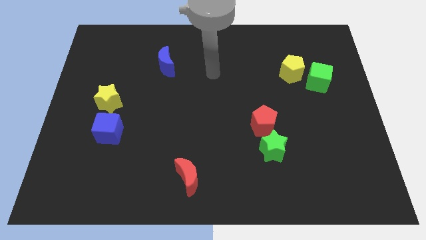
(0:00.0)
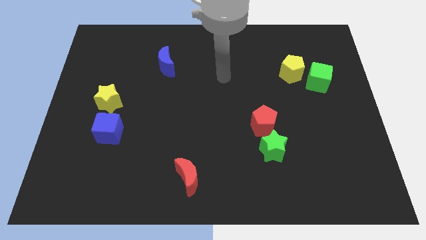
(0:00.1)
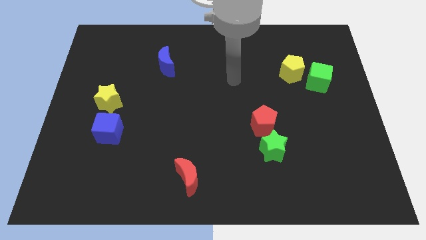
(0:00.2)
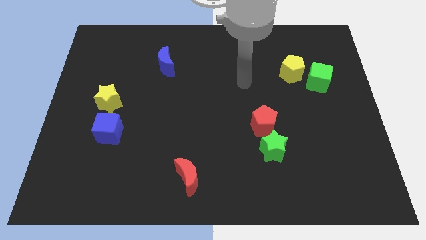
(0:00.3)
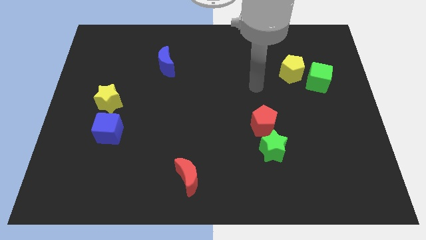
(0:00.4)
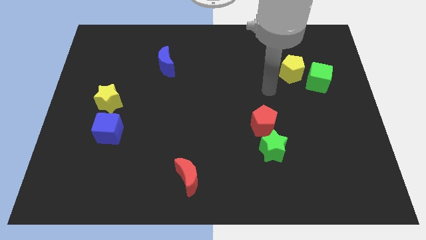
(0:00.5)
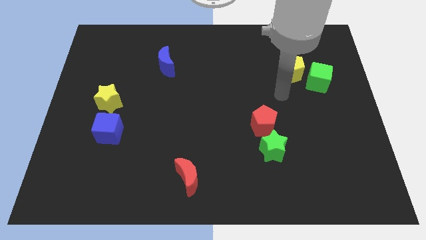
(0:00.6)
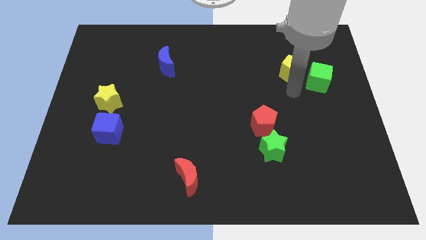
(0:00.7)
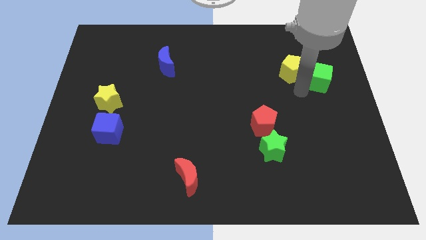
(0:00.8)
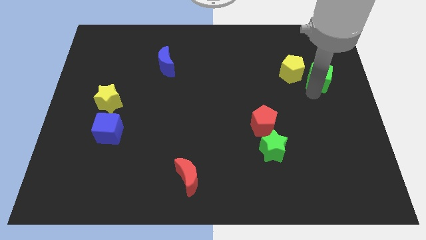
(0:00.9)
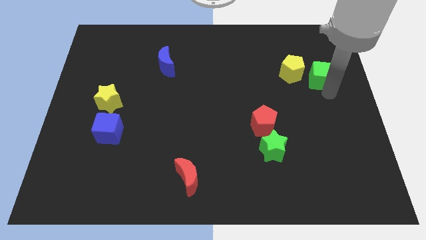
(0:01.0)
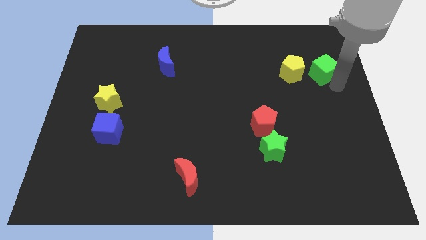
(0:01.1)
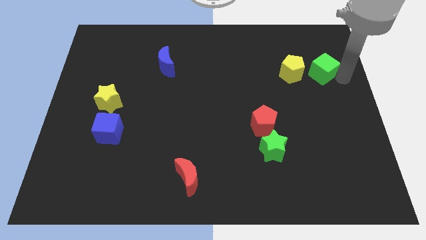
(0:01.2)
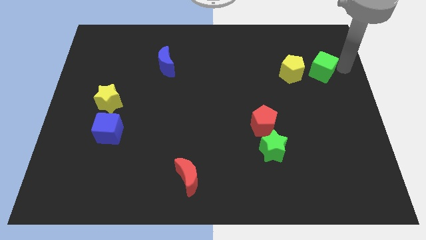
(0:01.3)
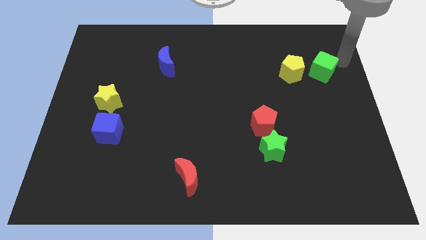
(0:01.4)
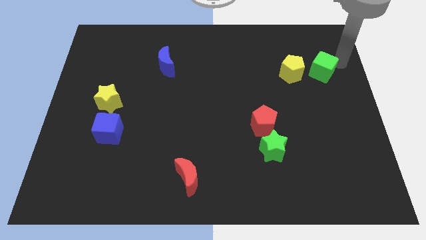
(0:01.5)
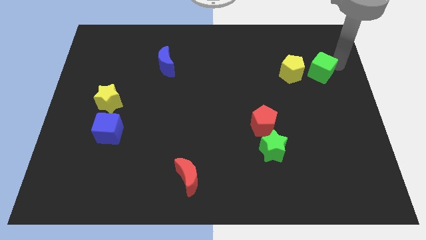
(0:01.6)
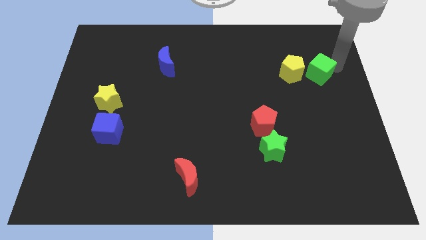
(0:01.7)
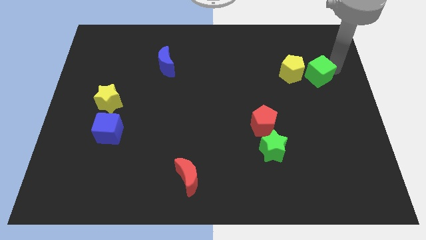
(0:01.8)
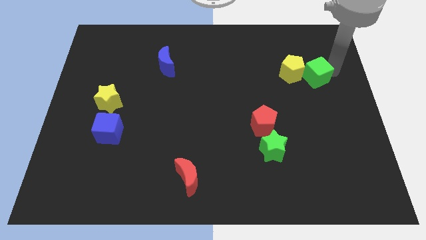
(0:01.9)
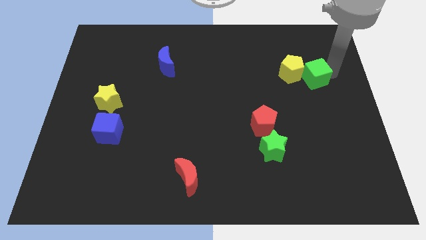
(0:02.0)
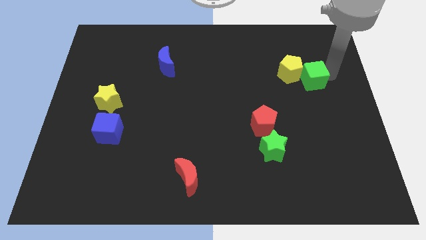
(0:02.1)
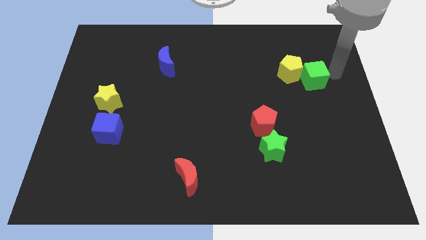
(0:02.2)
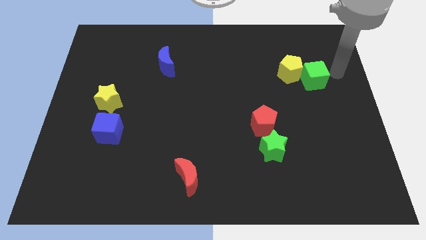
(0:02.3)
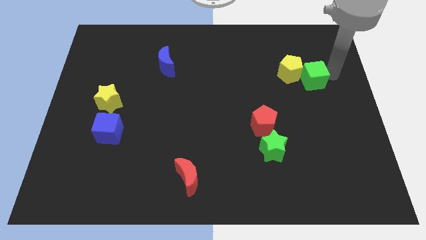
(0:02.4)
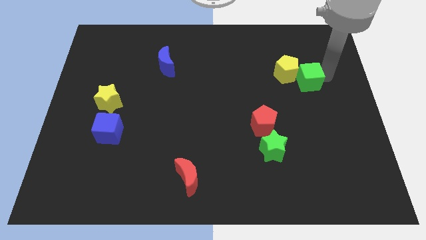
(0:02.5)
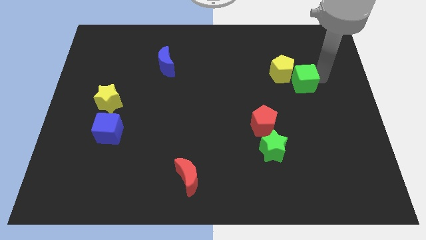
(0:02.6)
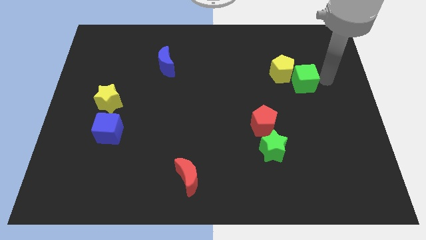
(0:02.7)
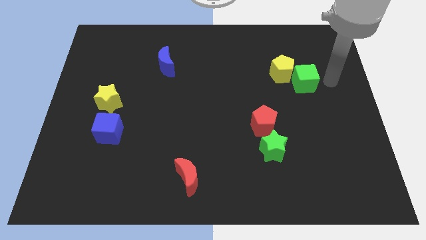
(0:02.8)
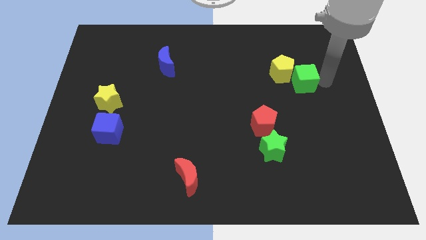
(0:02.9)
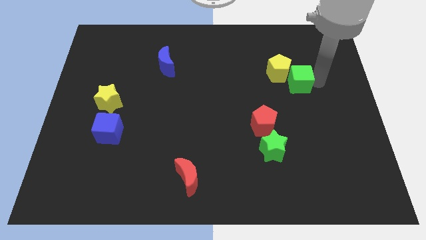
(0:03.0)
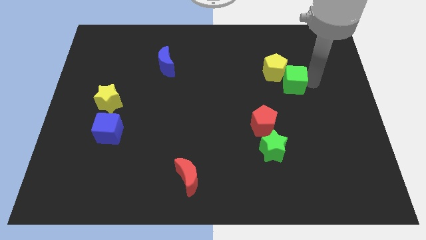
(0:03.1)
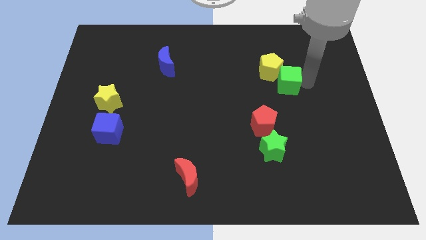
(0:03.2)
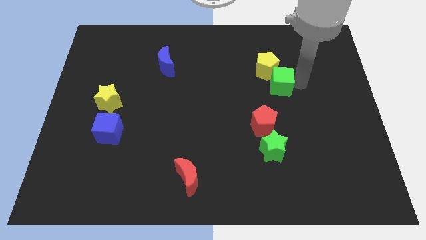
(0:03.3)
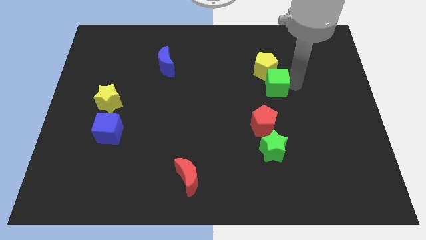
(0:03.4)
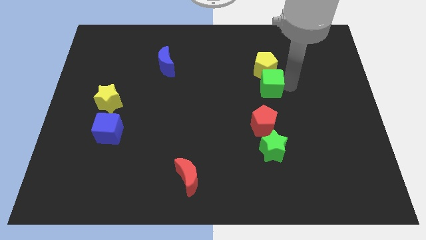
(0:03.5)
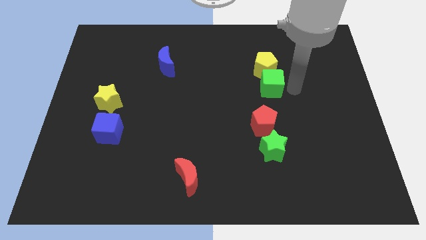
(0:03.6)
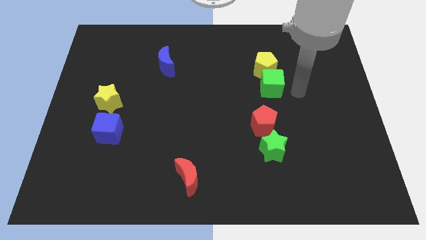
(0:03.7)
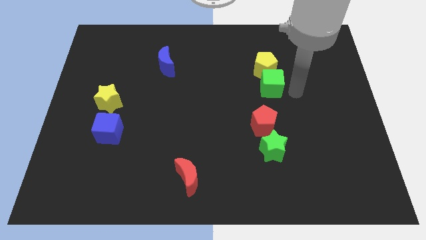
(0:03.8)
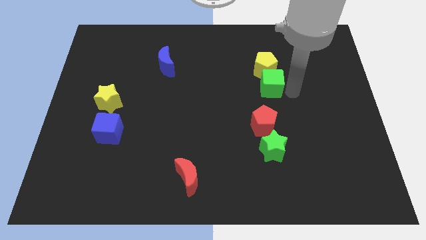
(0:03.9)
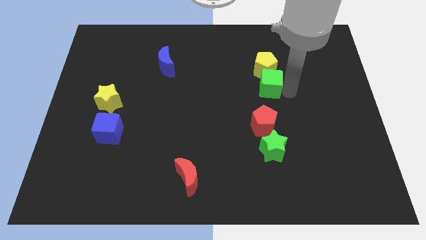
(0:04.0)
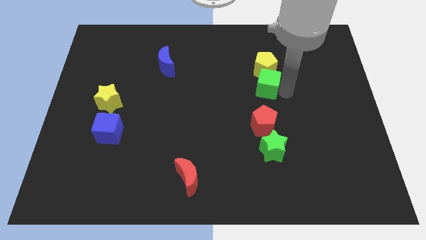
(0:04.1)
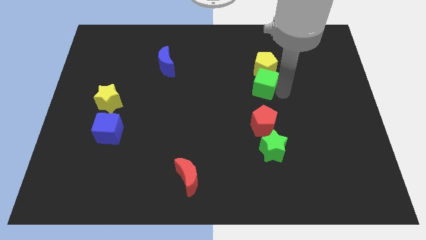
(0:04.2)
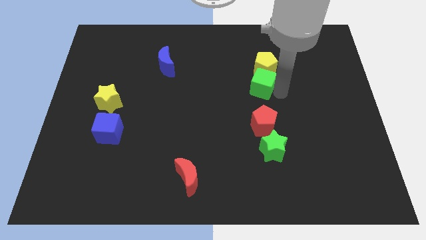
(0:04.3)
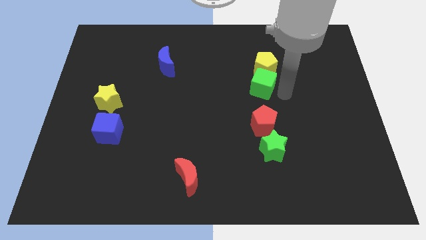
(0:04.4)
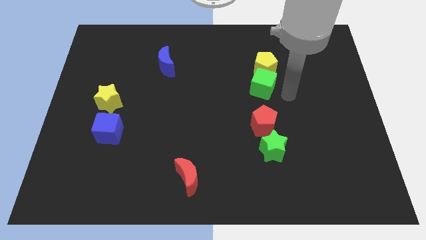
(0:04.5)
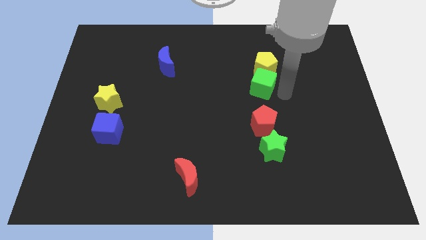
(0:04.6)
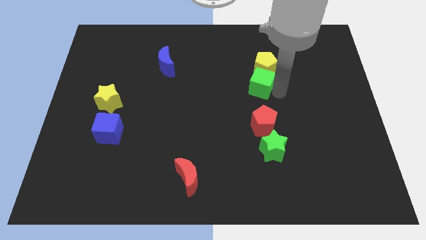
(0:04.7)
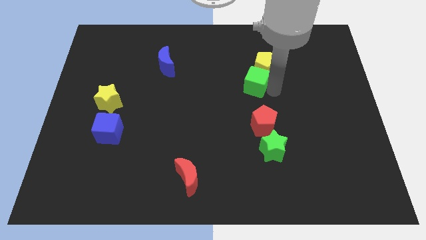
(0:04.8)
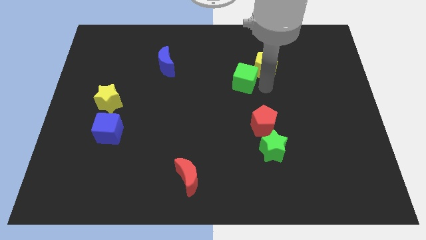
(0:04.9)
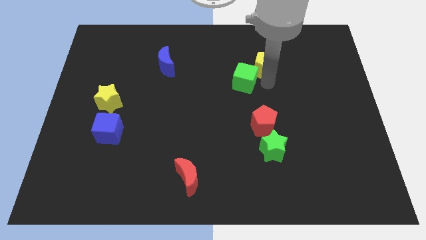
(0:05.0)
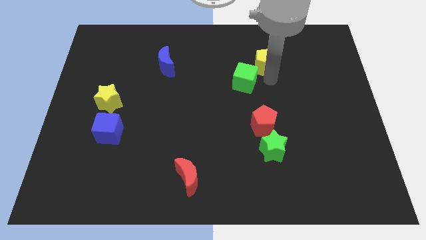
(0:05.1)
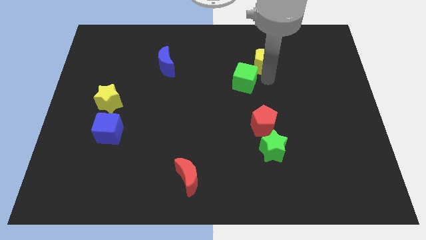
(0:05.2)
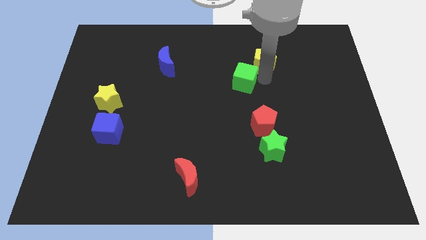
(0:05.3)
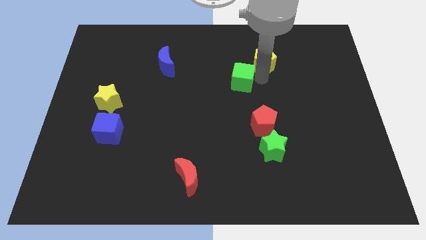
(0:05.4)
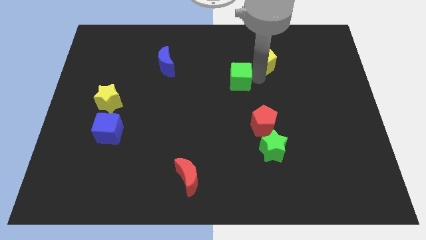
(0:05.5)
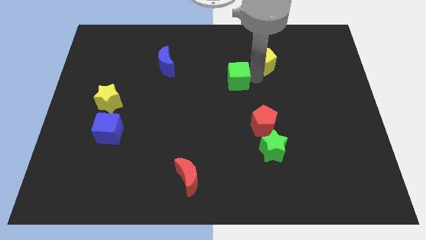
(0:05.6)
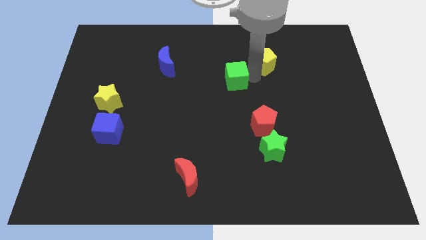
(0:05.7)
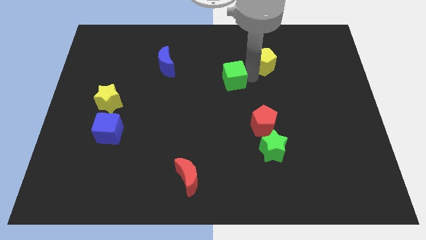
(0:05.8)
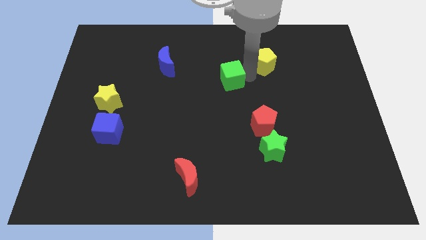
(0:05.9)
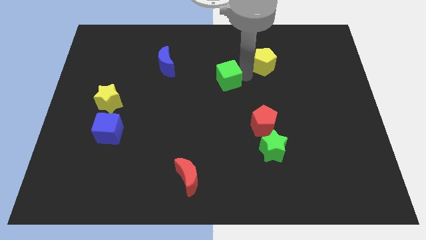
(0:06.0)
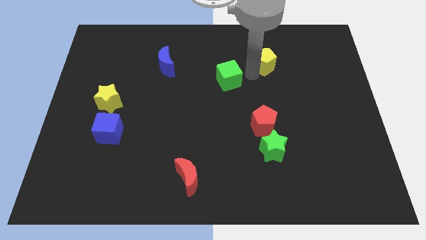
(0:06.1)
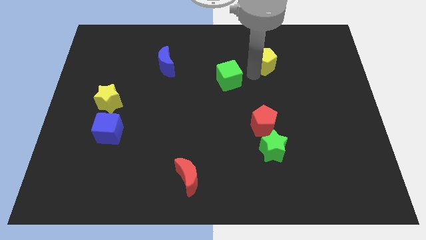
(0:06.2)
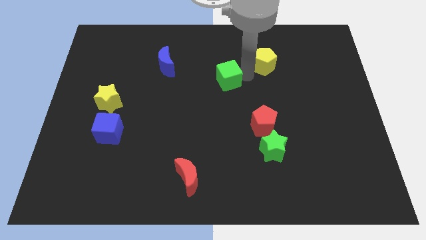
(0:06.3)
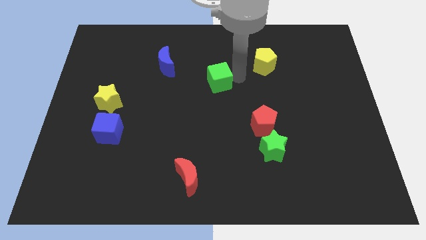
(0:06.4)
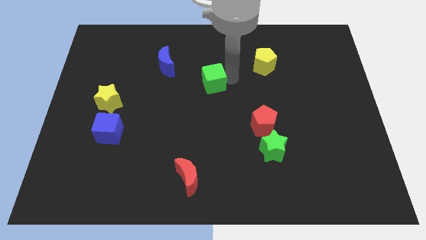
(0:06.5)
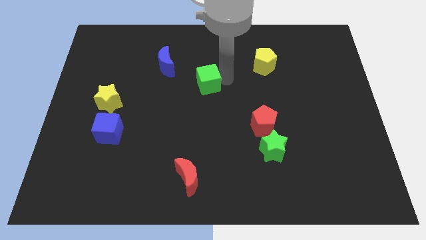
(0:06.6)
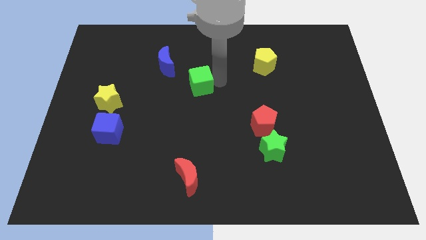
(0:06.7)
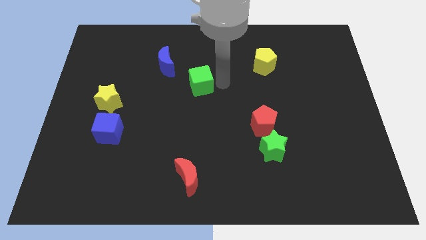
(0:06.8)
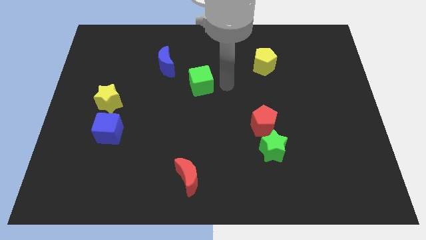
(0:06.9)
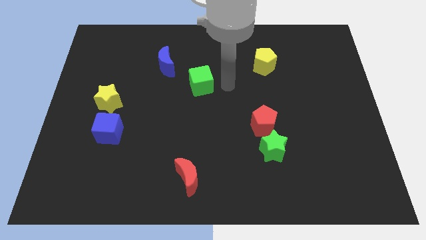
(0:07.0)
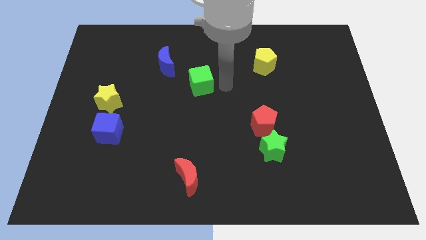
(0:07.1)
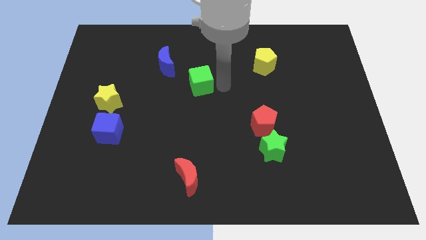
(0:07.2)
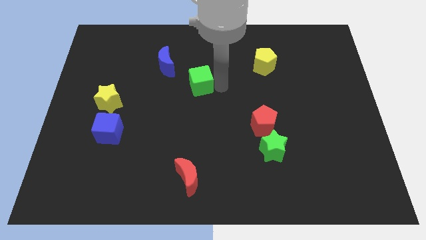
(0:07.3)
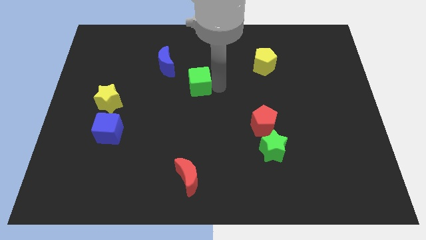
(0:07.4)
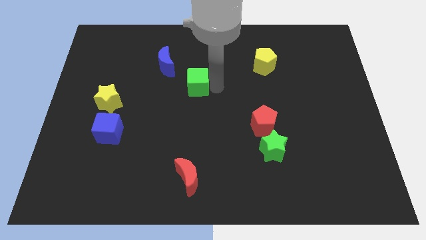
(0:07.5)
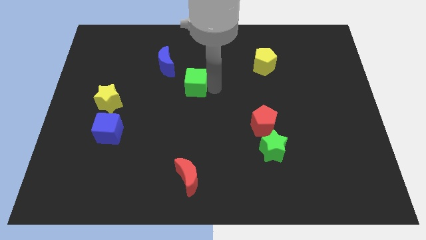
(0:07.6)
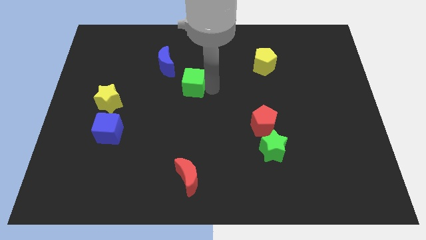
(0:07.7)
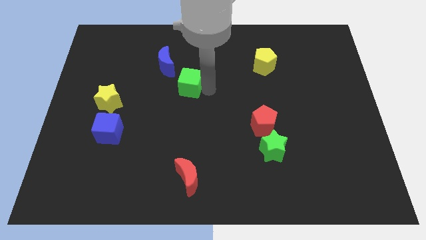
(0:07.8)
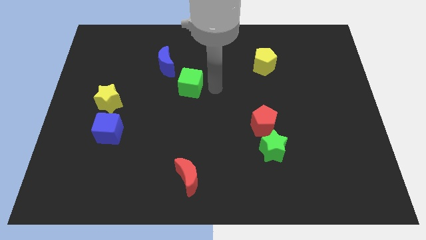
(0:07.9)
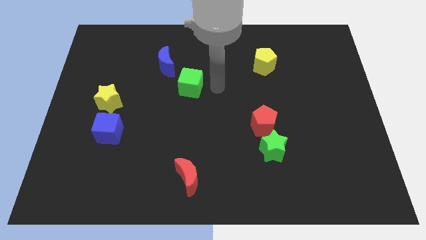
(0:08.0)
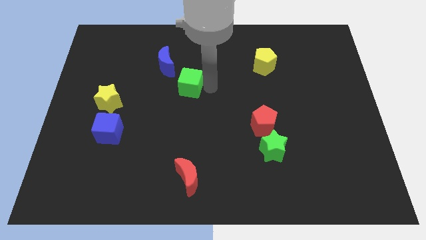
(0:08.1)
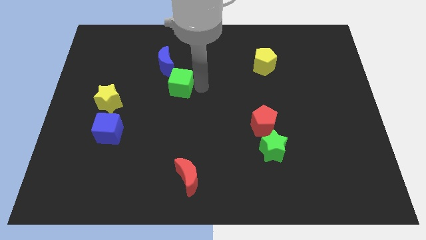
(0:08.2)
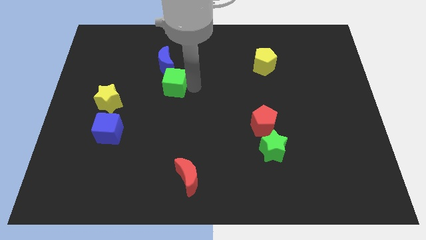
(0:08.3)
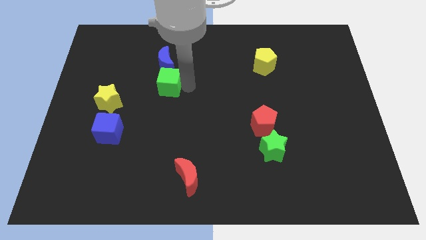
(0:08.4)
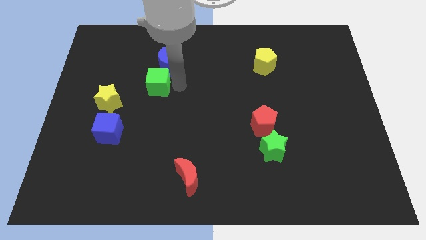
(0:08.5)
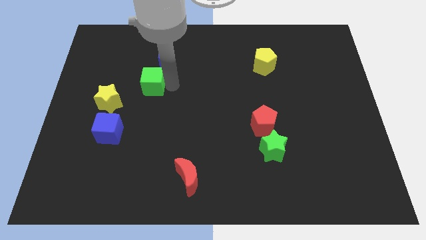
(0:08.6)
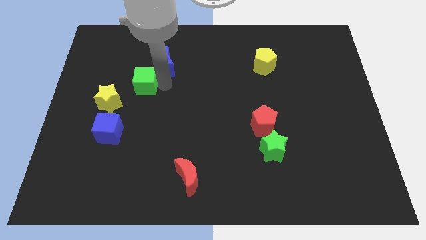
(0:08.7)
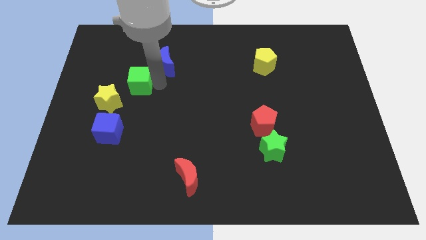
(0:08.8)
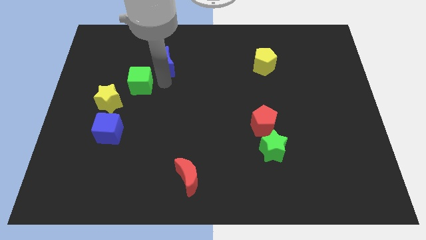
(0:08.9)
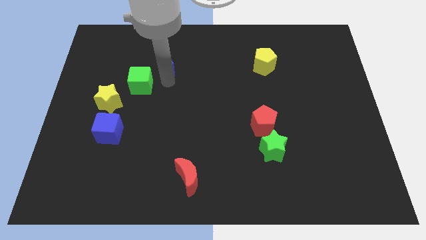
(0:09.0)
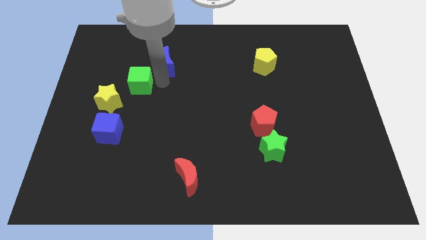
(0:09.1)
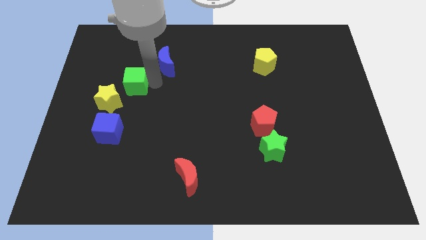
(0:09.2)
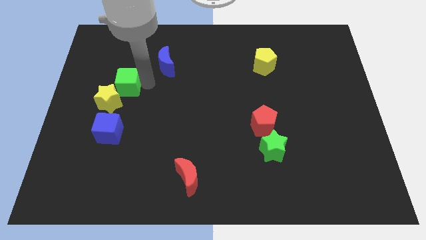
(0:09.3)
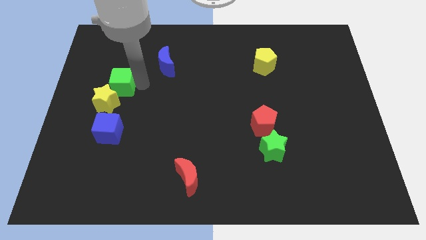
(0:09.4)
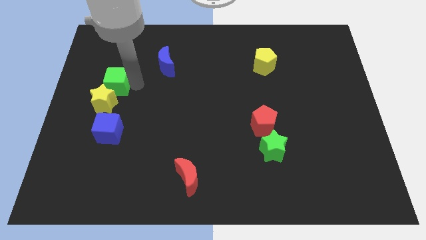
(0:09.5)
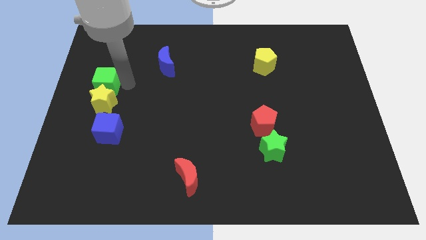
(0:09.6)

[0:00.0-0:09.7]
move the green cube to the center left
